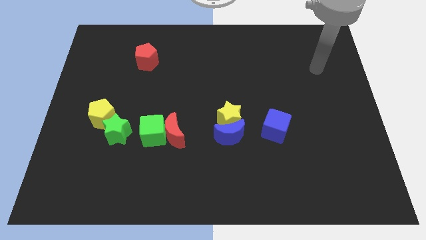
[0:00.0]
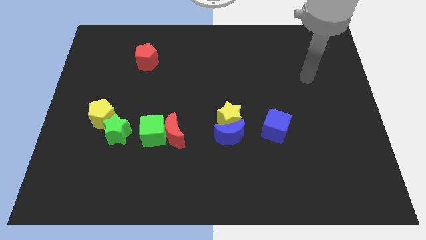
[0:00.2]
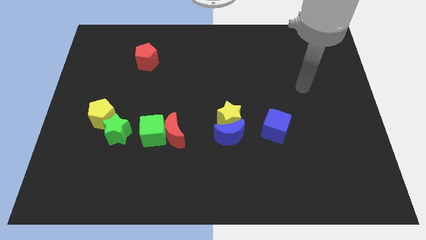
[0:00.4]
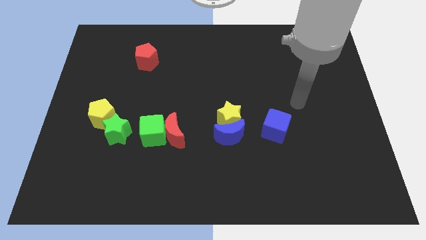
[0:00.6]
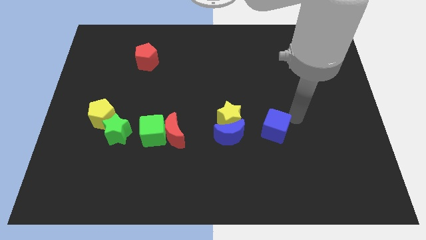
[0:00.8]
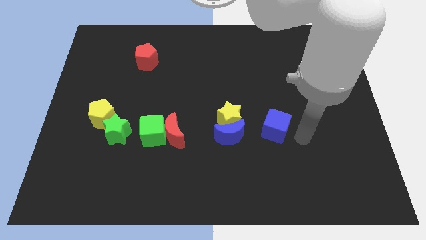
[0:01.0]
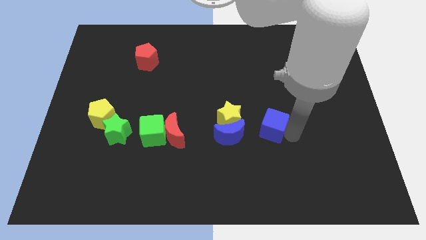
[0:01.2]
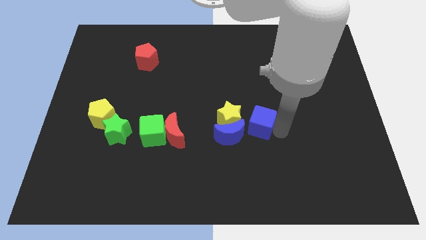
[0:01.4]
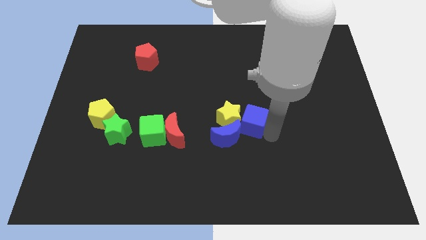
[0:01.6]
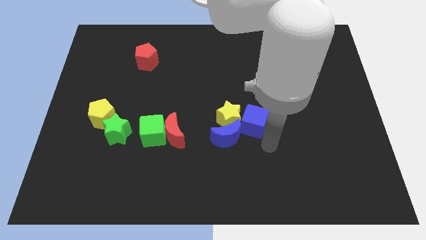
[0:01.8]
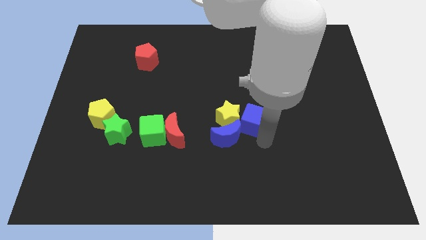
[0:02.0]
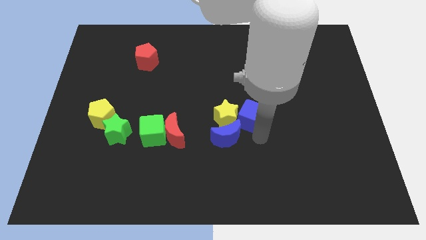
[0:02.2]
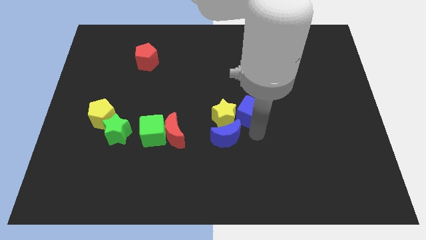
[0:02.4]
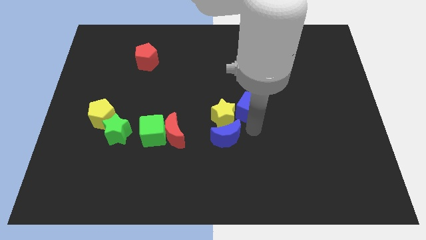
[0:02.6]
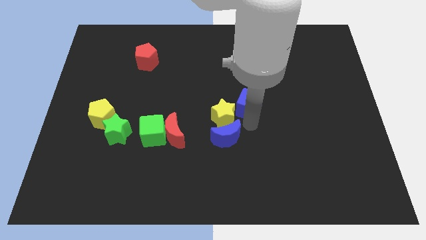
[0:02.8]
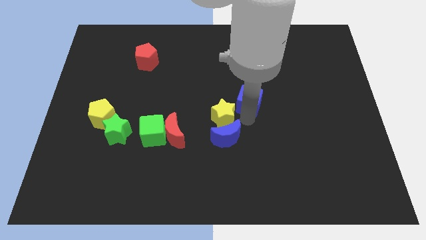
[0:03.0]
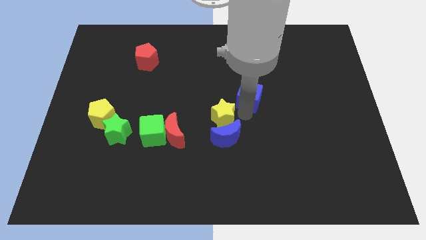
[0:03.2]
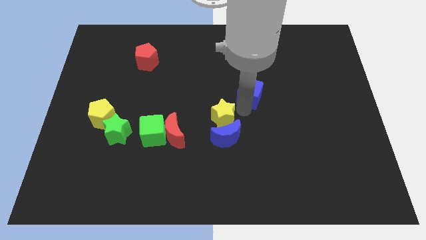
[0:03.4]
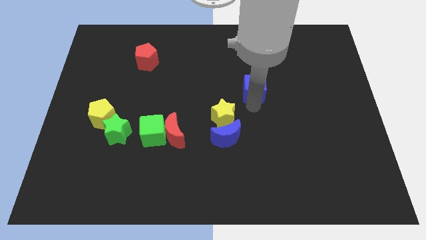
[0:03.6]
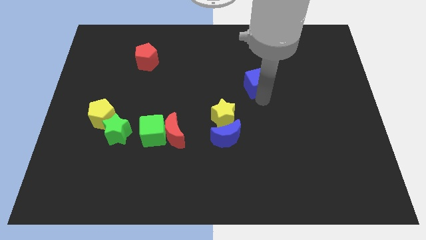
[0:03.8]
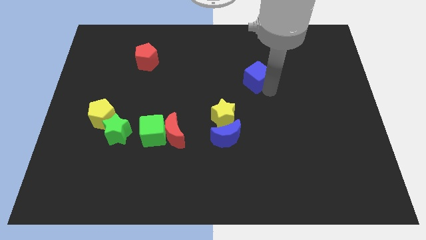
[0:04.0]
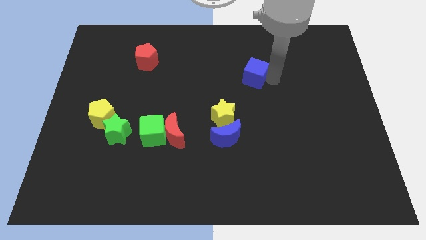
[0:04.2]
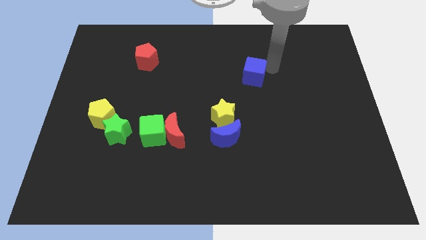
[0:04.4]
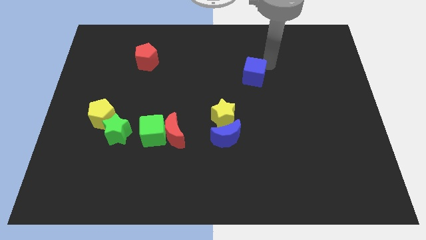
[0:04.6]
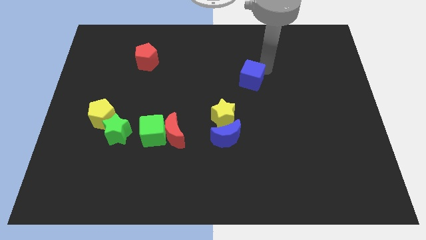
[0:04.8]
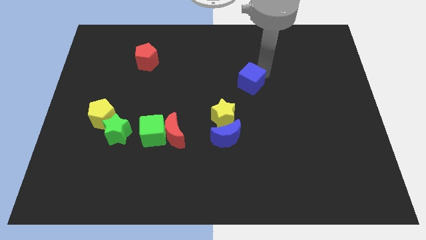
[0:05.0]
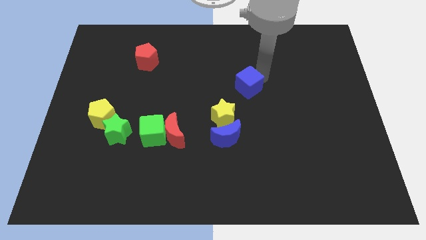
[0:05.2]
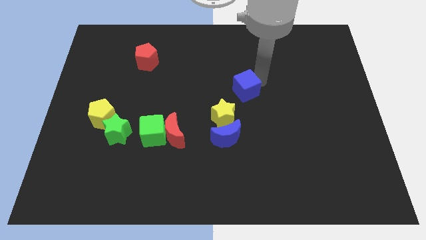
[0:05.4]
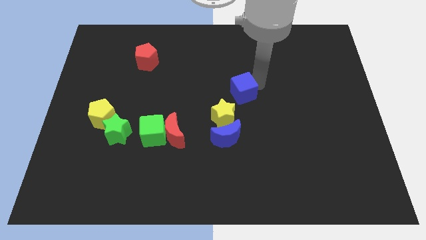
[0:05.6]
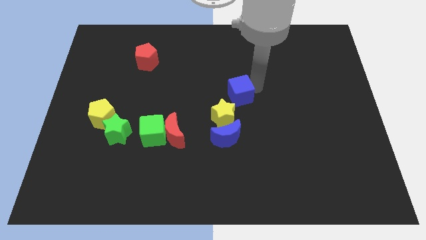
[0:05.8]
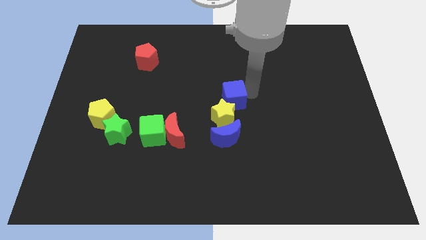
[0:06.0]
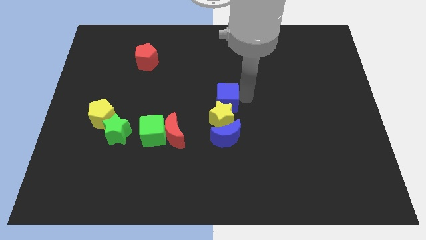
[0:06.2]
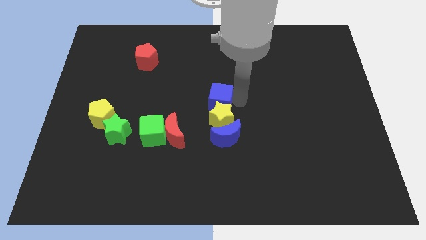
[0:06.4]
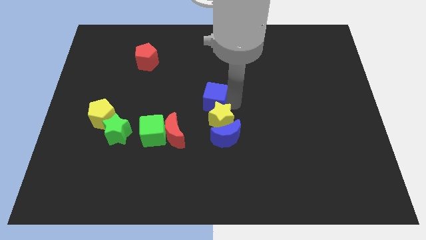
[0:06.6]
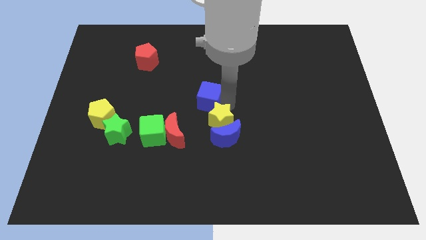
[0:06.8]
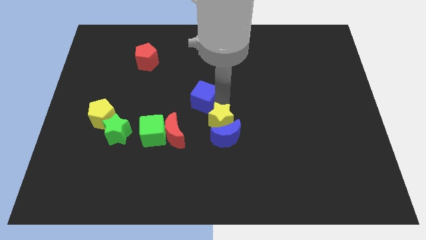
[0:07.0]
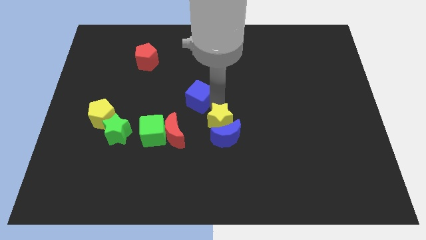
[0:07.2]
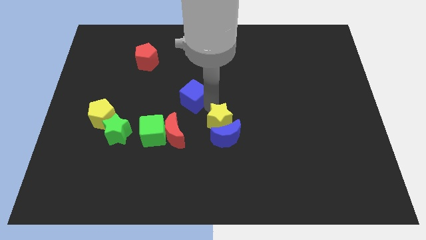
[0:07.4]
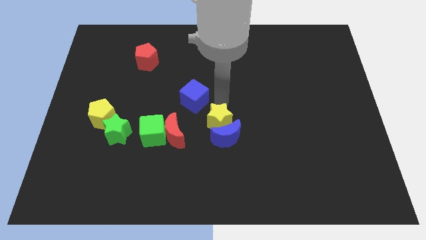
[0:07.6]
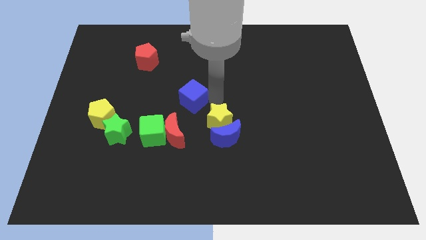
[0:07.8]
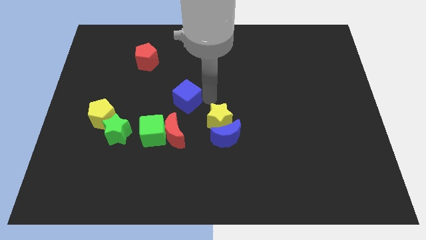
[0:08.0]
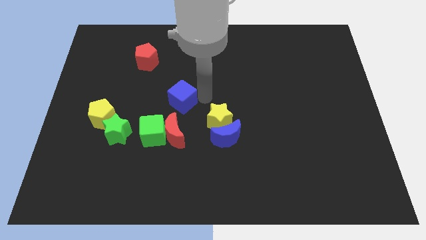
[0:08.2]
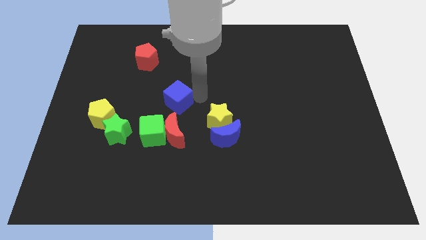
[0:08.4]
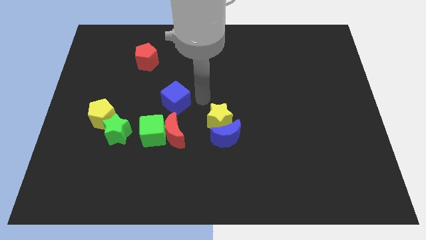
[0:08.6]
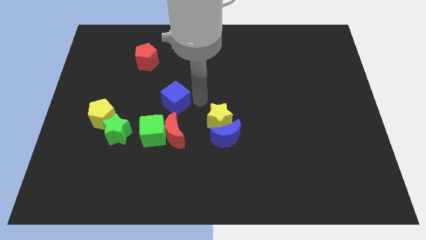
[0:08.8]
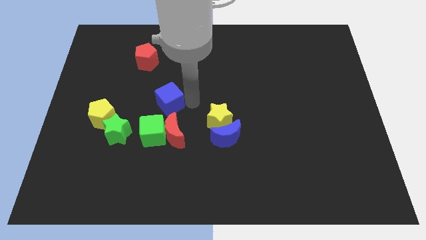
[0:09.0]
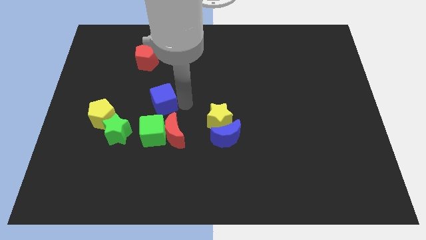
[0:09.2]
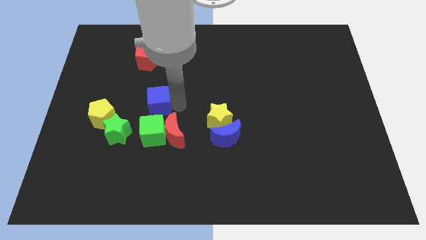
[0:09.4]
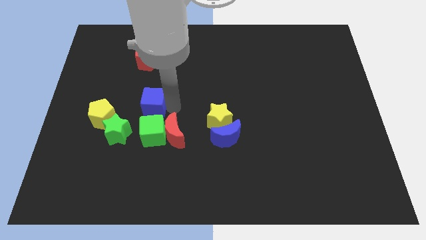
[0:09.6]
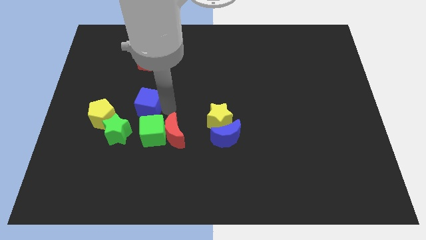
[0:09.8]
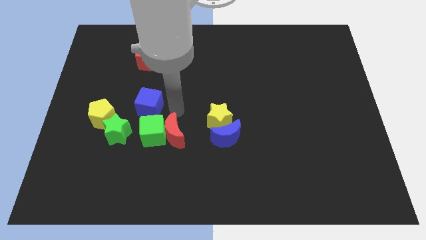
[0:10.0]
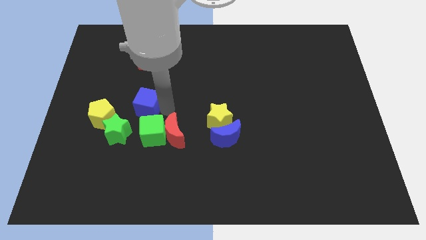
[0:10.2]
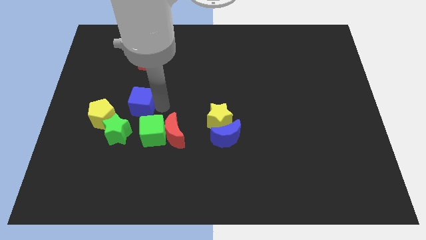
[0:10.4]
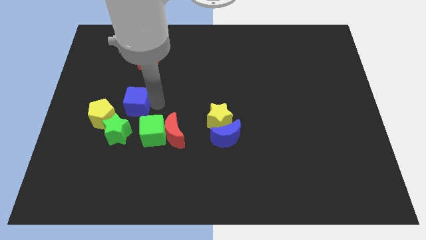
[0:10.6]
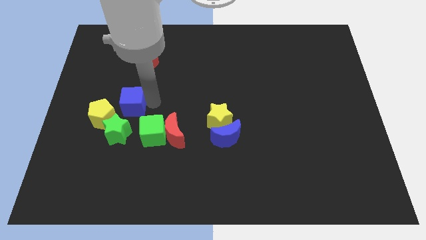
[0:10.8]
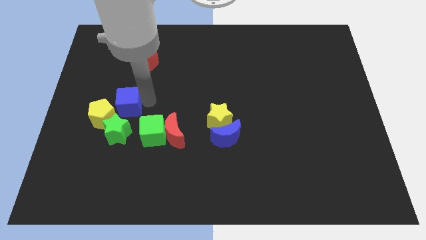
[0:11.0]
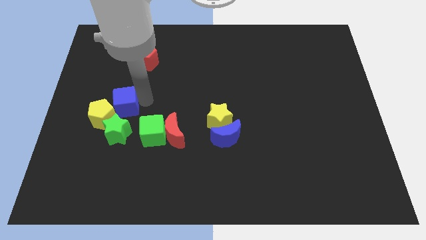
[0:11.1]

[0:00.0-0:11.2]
move the blue cube towards the yellow pentagon

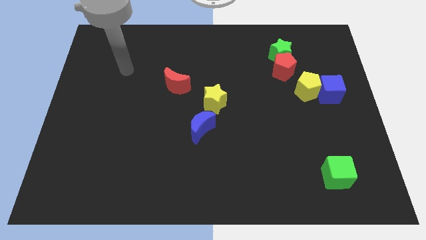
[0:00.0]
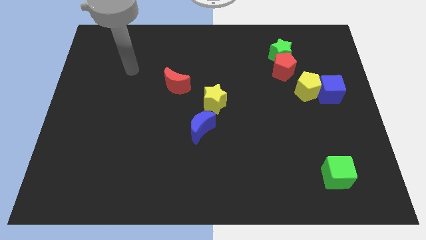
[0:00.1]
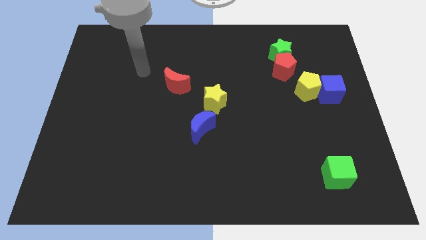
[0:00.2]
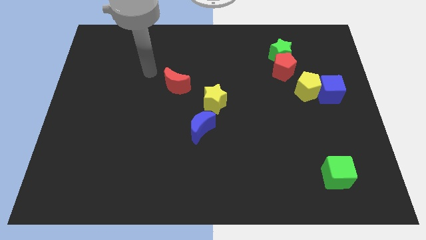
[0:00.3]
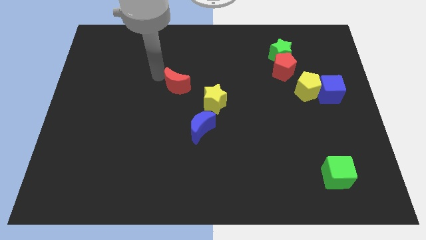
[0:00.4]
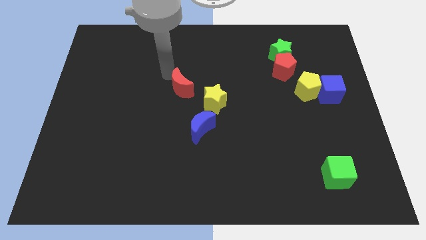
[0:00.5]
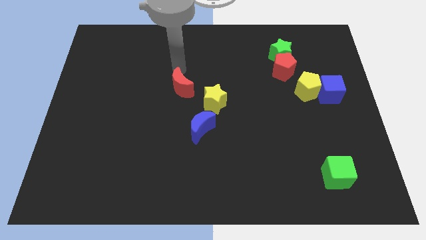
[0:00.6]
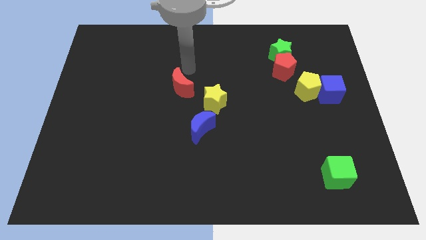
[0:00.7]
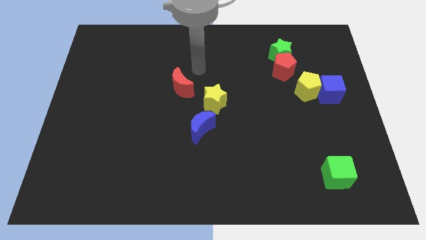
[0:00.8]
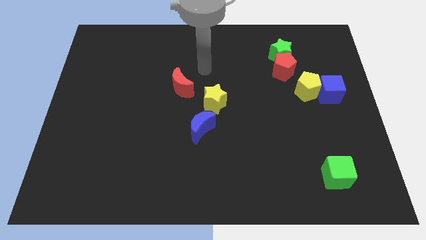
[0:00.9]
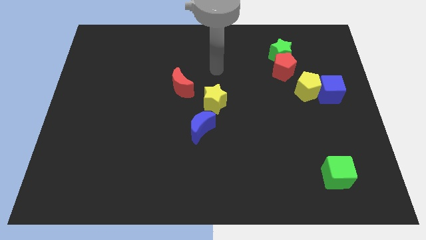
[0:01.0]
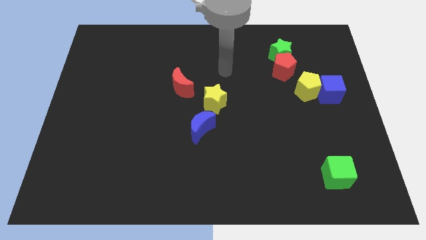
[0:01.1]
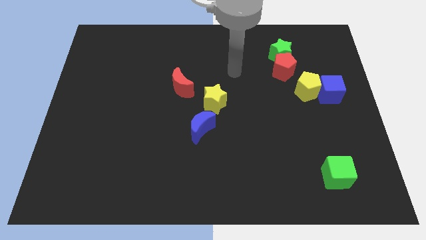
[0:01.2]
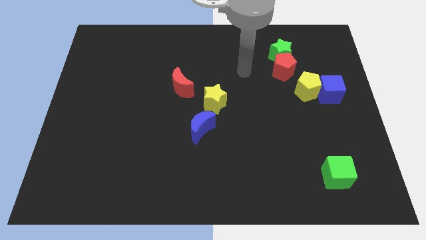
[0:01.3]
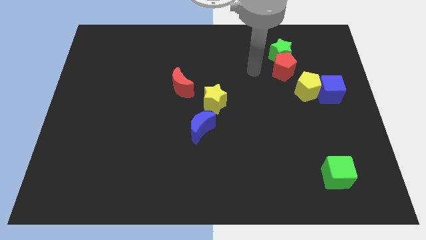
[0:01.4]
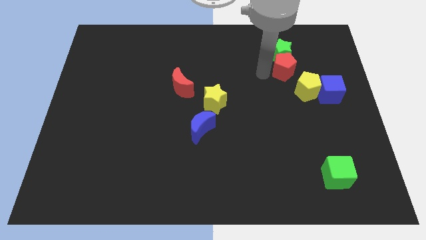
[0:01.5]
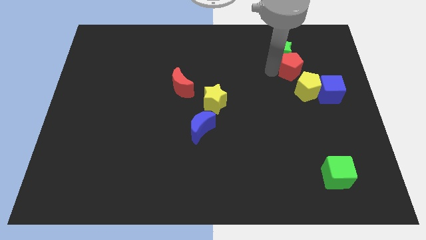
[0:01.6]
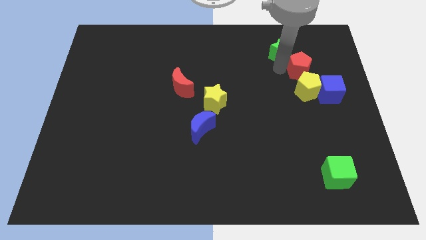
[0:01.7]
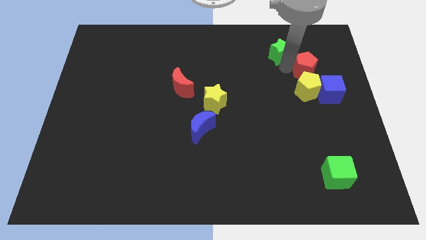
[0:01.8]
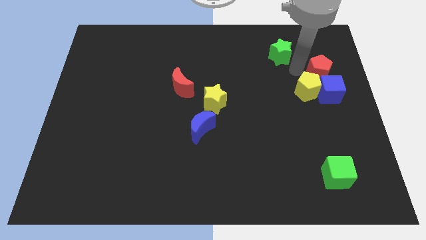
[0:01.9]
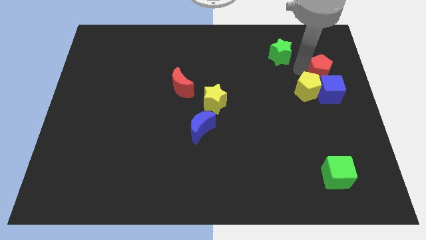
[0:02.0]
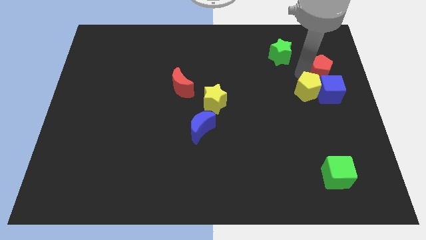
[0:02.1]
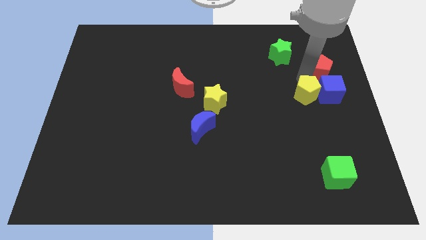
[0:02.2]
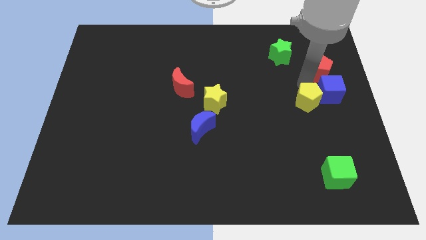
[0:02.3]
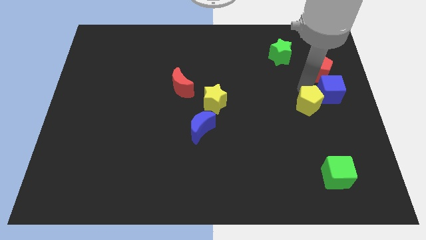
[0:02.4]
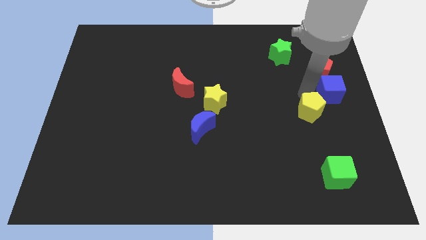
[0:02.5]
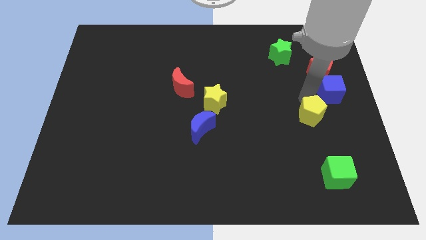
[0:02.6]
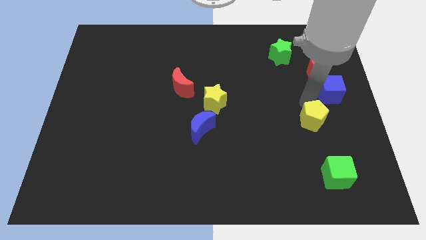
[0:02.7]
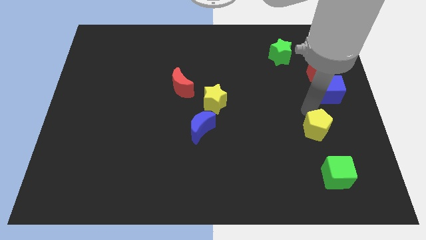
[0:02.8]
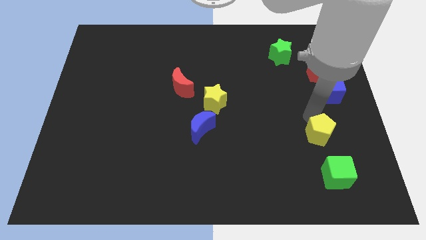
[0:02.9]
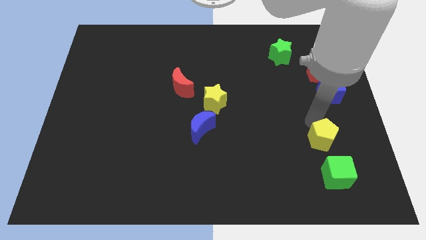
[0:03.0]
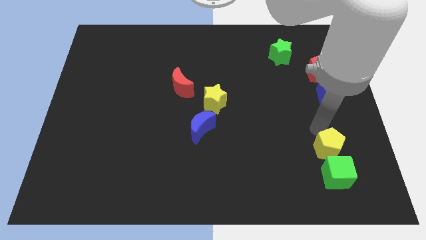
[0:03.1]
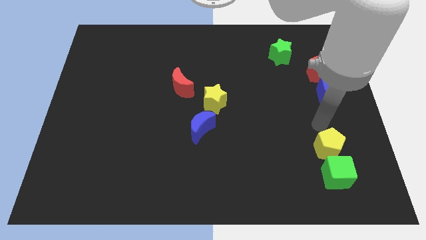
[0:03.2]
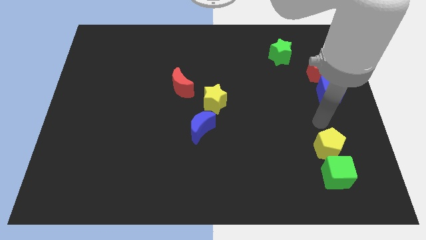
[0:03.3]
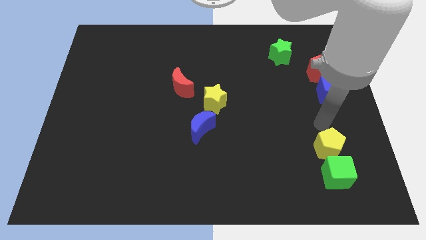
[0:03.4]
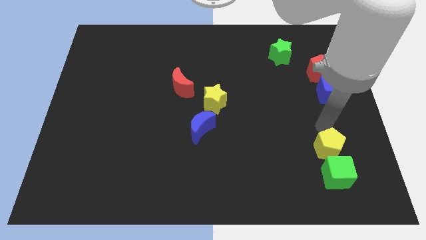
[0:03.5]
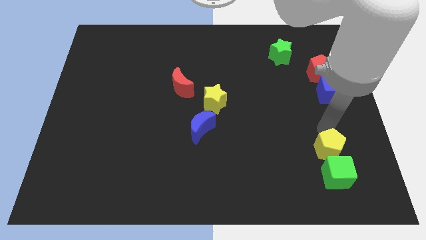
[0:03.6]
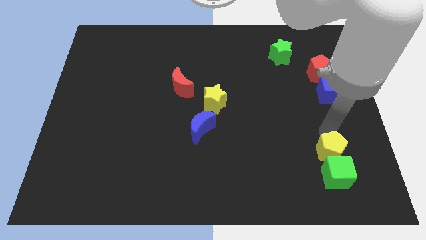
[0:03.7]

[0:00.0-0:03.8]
push the yellow pentagon towards the green cube
